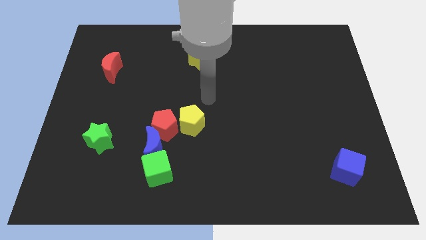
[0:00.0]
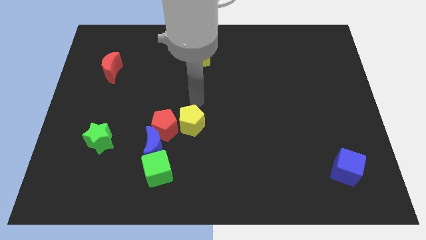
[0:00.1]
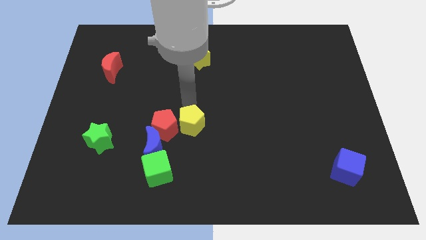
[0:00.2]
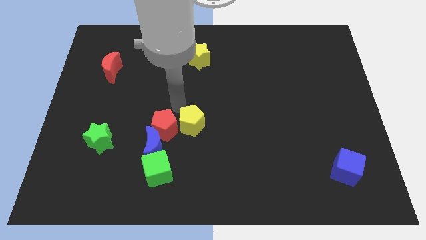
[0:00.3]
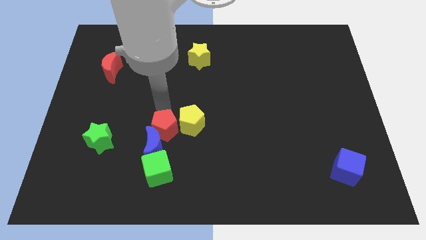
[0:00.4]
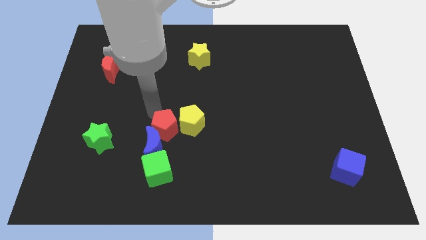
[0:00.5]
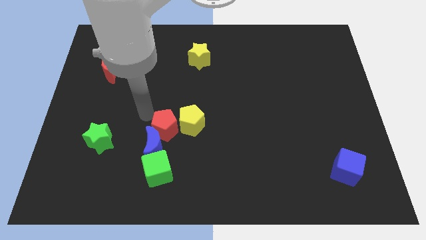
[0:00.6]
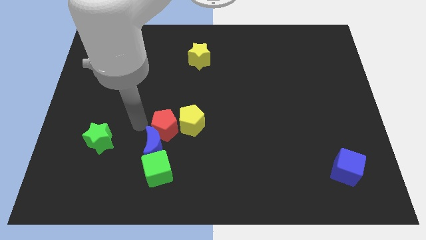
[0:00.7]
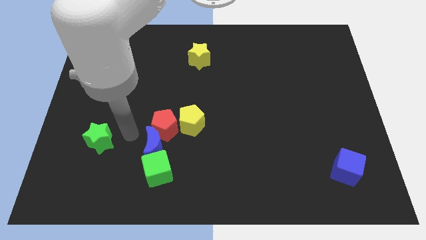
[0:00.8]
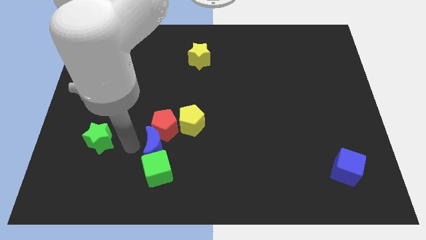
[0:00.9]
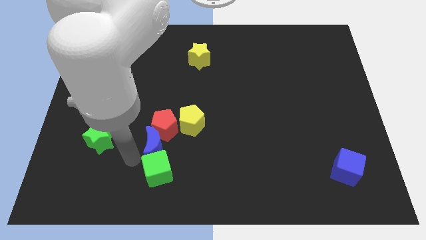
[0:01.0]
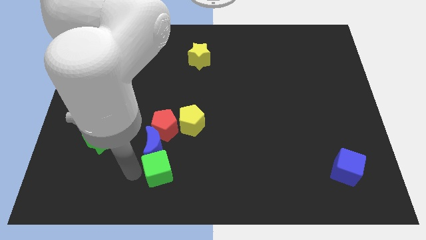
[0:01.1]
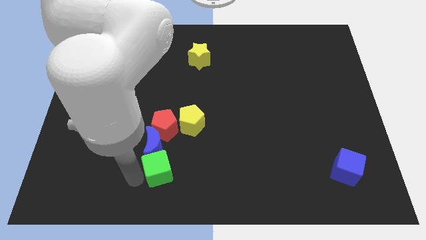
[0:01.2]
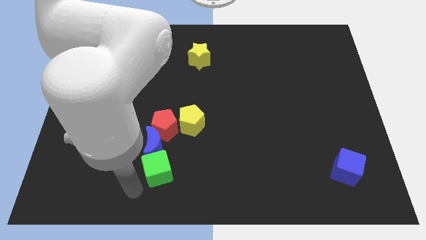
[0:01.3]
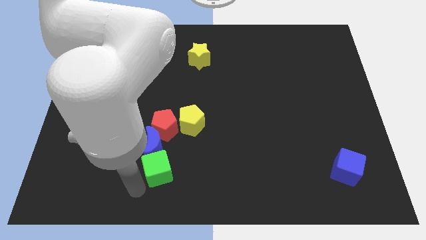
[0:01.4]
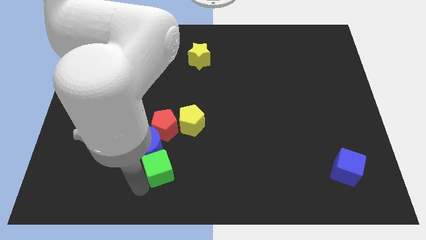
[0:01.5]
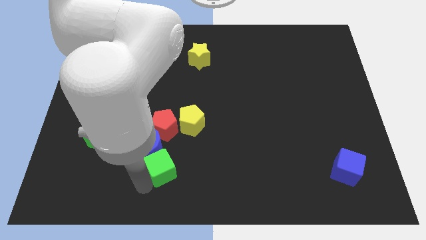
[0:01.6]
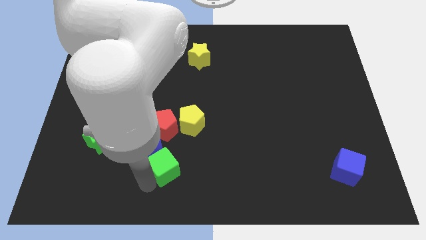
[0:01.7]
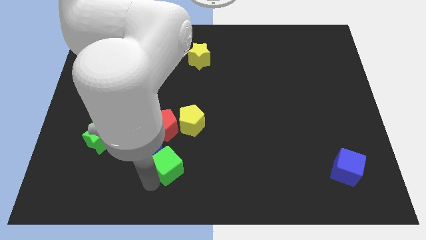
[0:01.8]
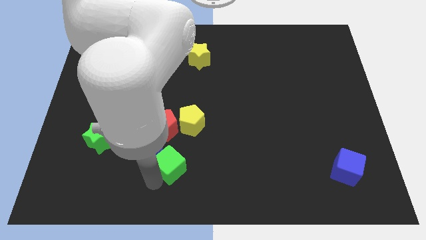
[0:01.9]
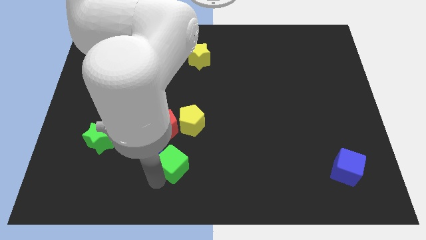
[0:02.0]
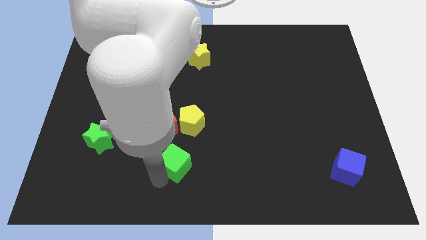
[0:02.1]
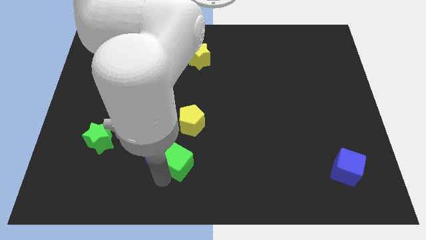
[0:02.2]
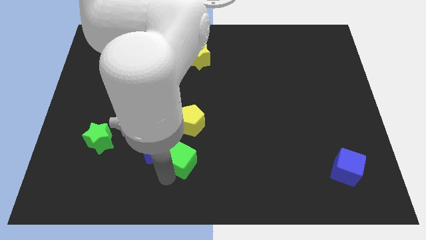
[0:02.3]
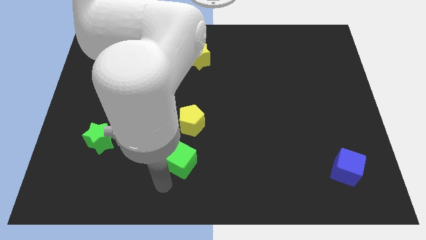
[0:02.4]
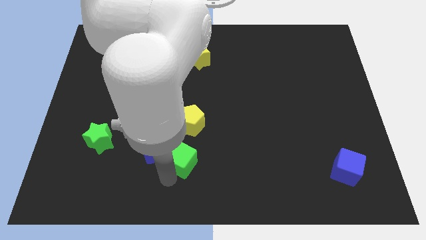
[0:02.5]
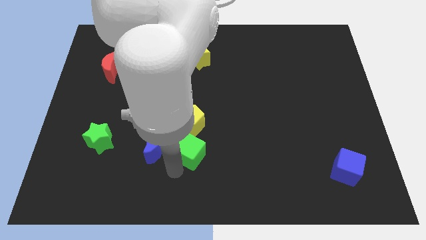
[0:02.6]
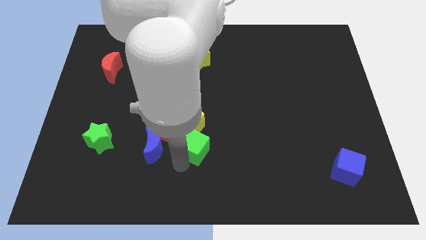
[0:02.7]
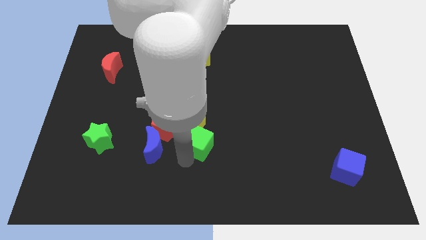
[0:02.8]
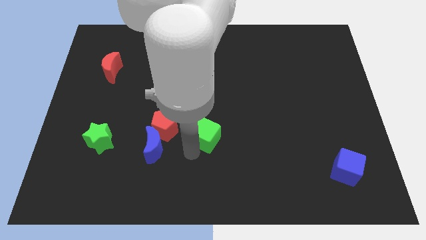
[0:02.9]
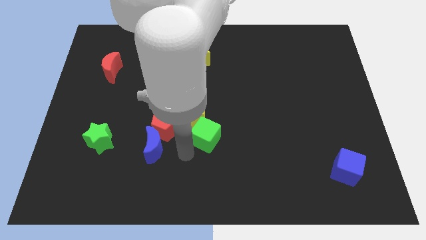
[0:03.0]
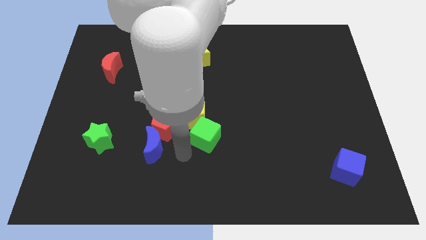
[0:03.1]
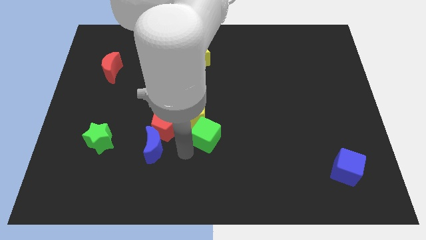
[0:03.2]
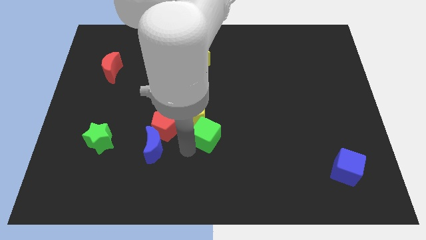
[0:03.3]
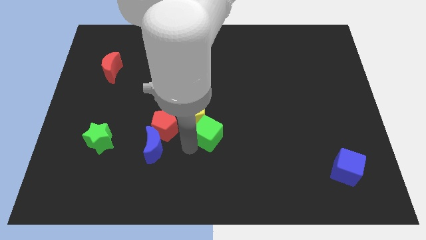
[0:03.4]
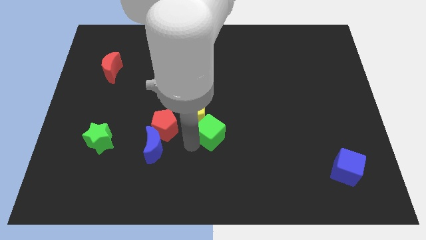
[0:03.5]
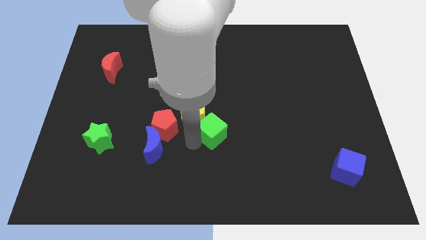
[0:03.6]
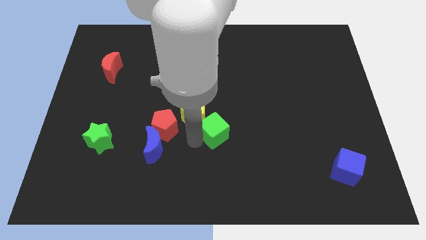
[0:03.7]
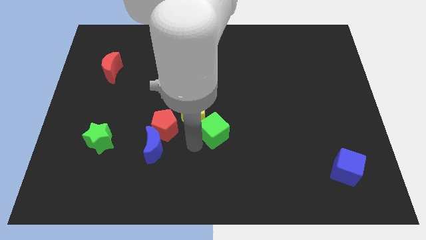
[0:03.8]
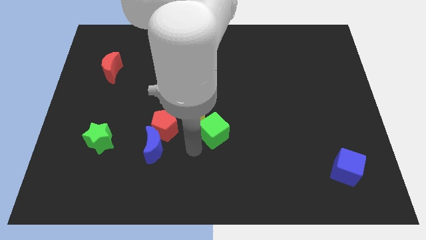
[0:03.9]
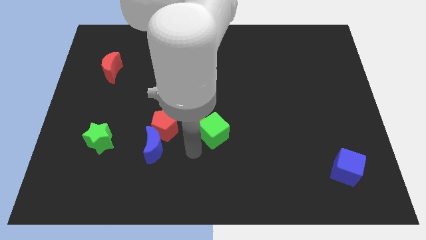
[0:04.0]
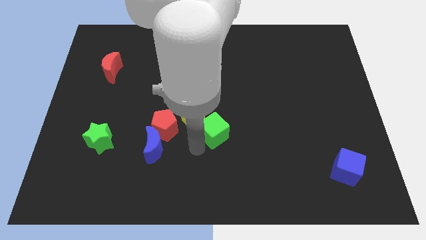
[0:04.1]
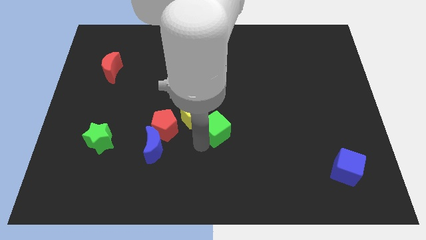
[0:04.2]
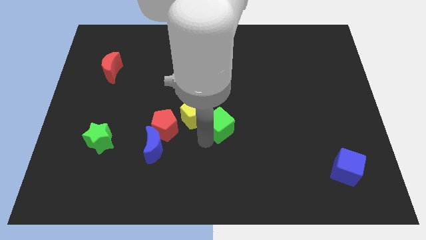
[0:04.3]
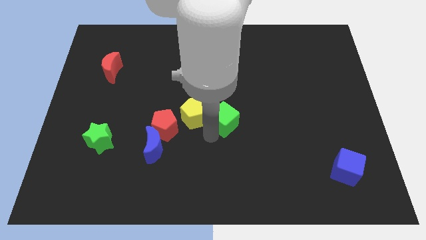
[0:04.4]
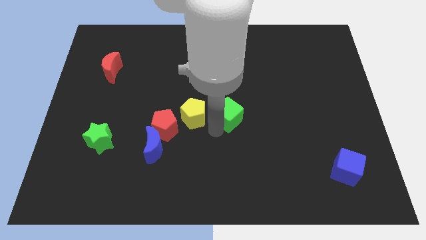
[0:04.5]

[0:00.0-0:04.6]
slide the green cube upwards and right

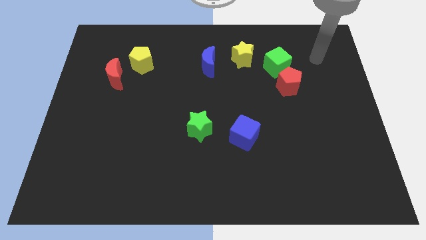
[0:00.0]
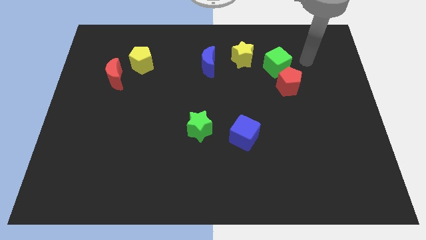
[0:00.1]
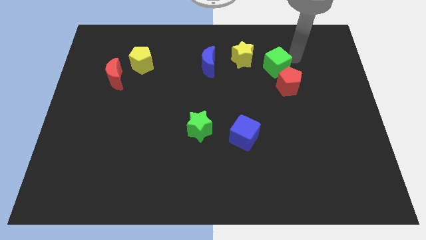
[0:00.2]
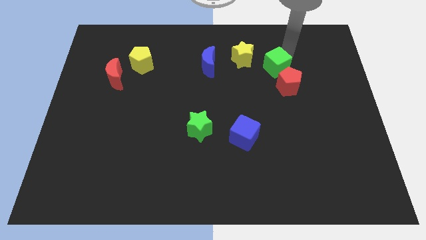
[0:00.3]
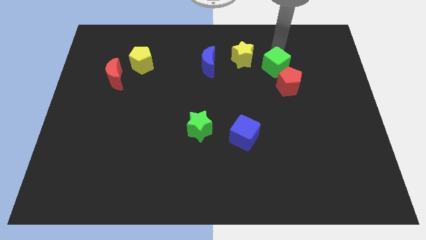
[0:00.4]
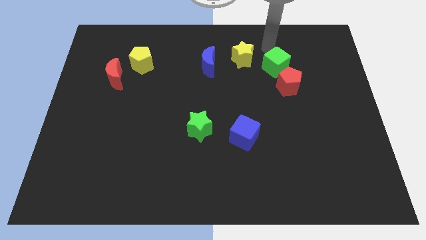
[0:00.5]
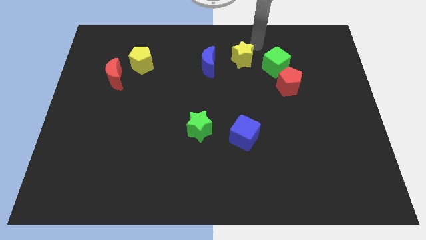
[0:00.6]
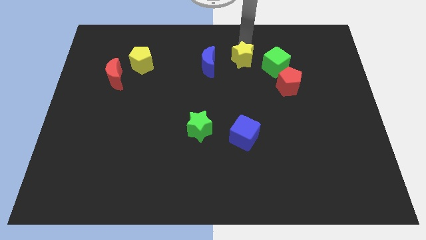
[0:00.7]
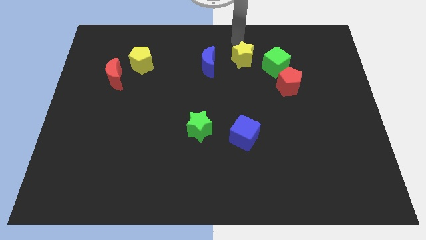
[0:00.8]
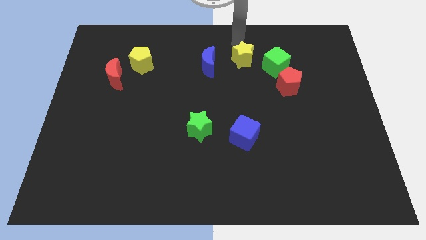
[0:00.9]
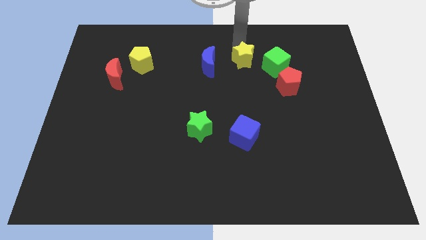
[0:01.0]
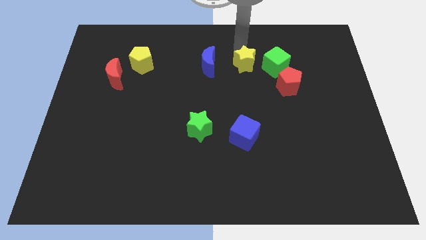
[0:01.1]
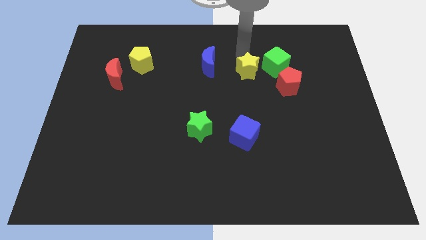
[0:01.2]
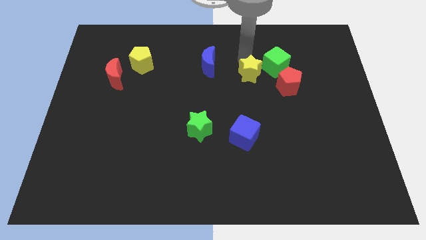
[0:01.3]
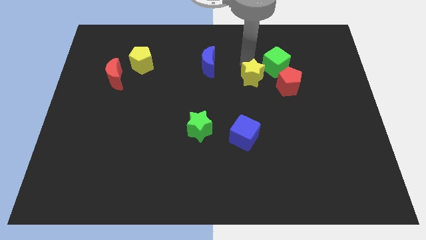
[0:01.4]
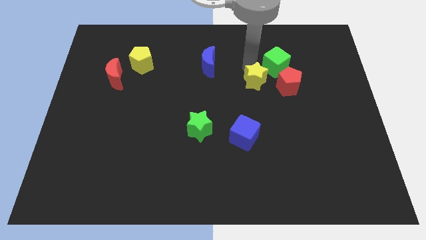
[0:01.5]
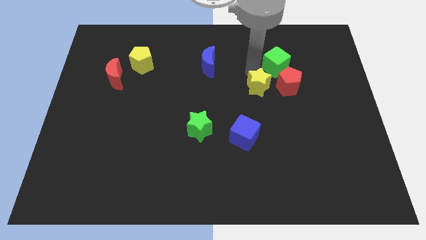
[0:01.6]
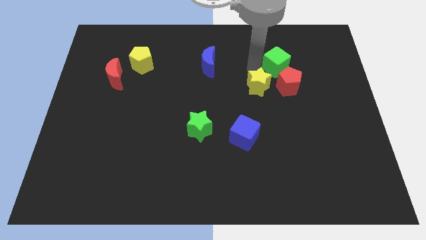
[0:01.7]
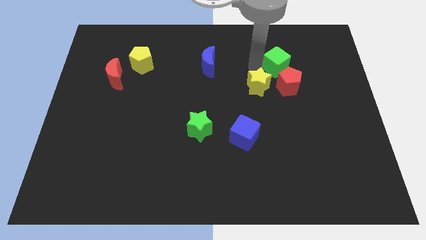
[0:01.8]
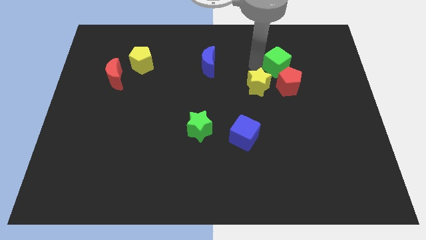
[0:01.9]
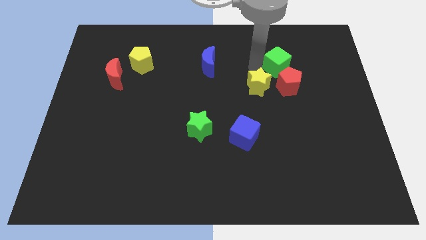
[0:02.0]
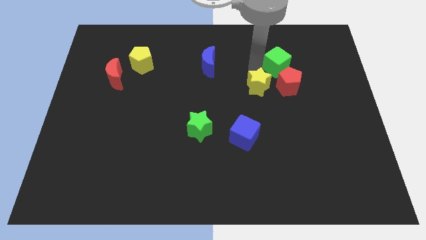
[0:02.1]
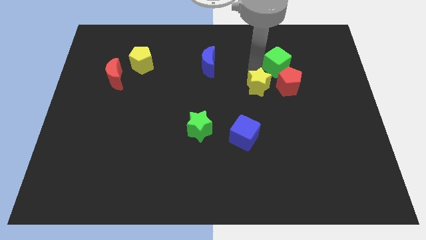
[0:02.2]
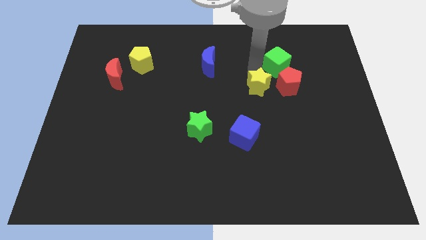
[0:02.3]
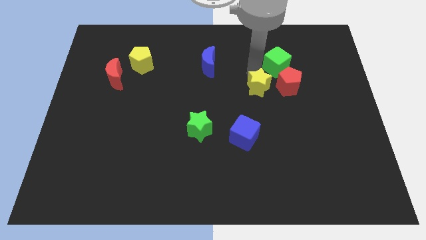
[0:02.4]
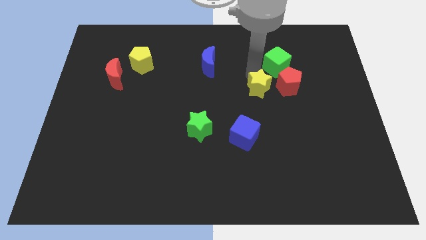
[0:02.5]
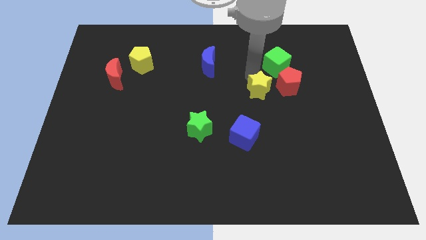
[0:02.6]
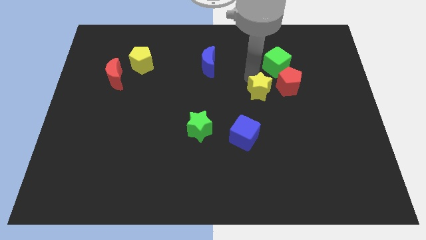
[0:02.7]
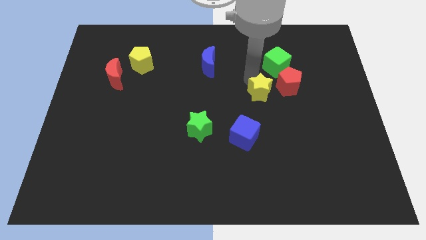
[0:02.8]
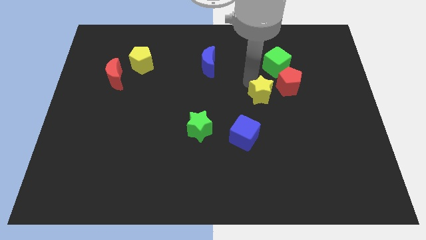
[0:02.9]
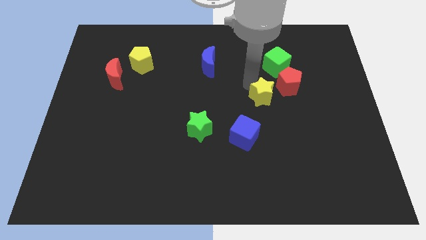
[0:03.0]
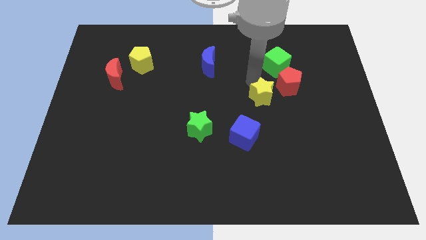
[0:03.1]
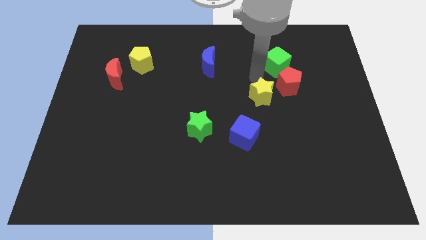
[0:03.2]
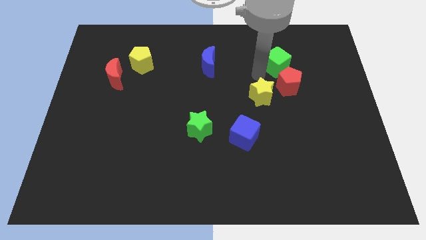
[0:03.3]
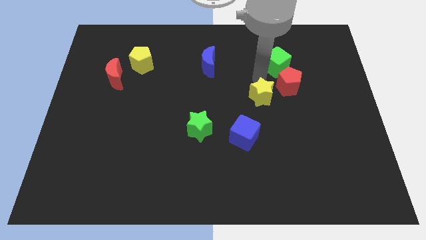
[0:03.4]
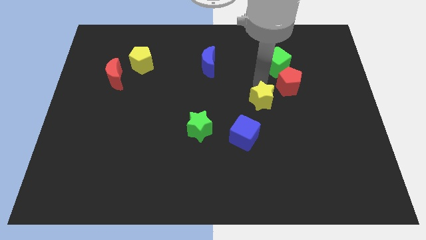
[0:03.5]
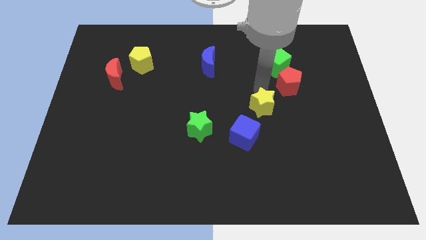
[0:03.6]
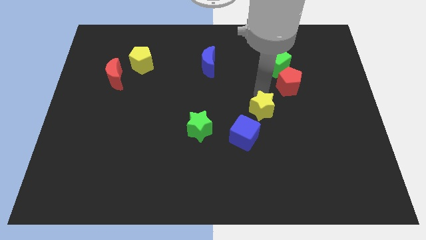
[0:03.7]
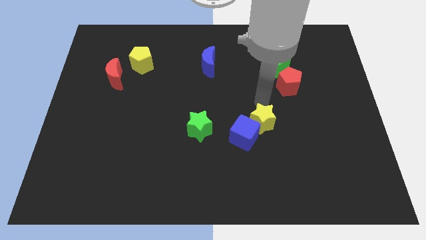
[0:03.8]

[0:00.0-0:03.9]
push the yellow star downwards
